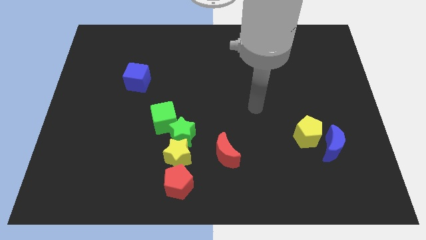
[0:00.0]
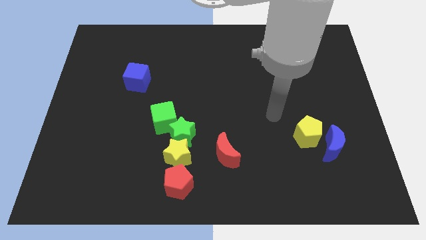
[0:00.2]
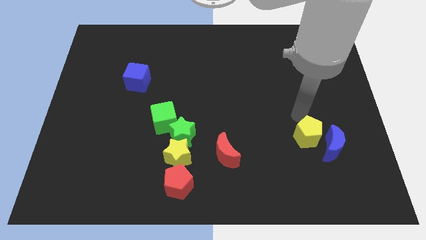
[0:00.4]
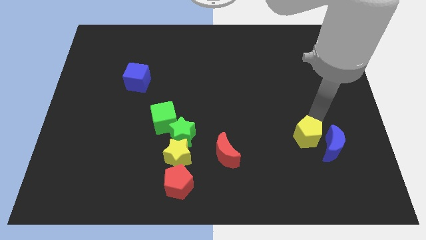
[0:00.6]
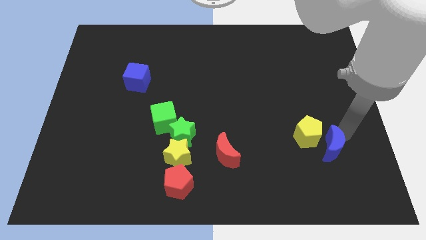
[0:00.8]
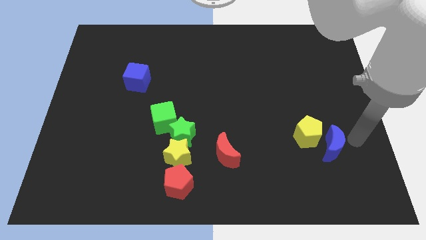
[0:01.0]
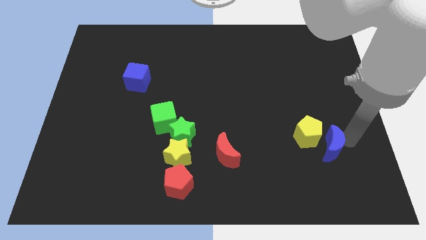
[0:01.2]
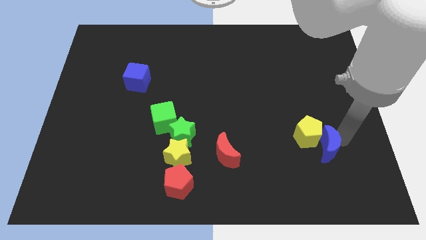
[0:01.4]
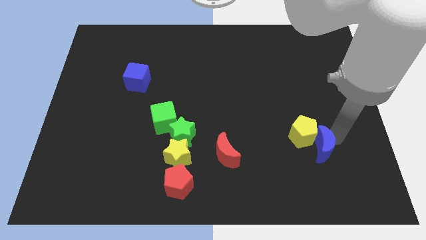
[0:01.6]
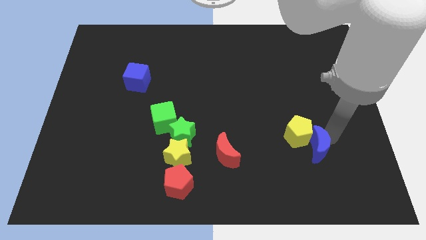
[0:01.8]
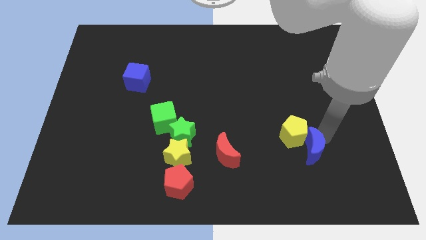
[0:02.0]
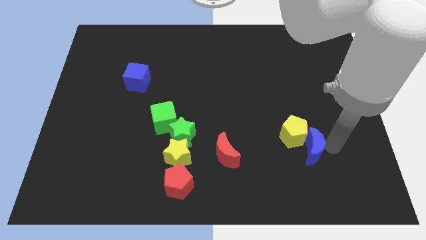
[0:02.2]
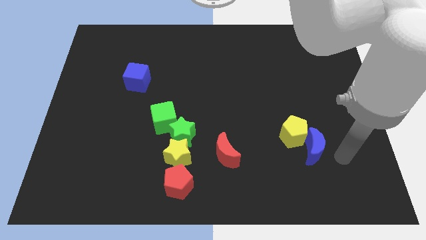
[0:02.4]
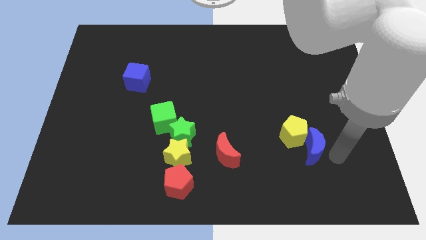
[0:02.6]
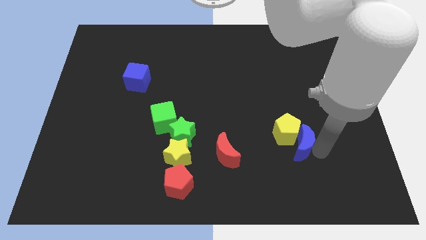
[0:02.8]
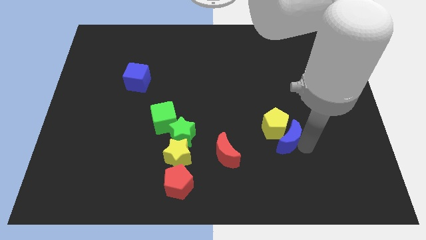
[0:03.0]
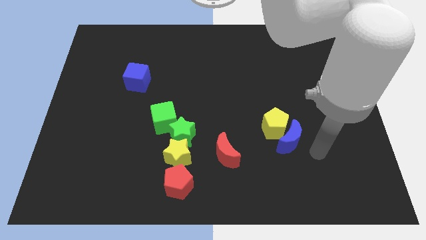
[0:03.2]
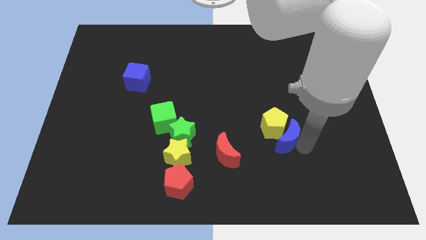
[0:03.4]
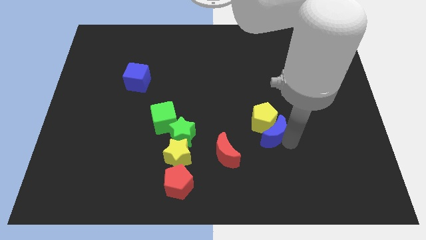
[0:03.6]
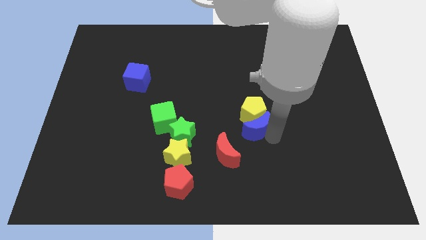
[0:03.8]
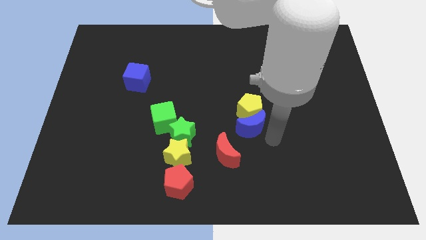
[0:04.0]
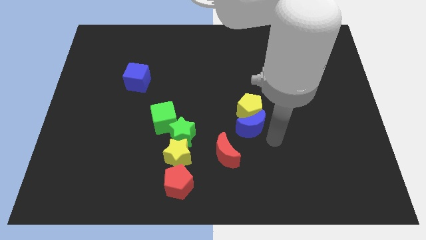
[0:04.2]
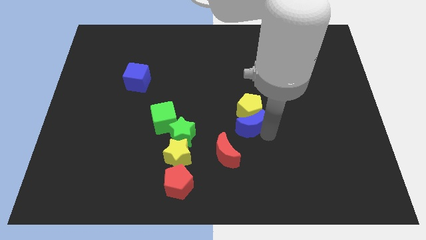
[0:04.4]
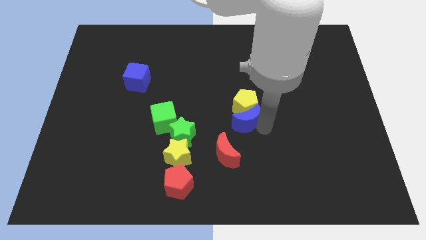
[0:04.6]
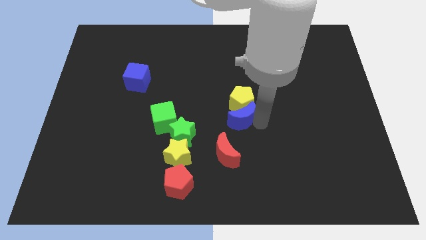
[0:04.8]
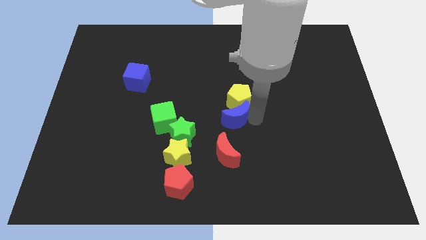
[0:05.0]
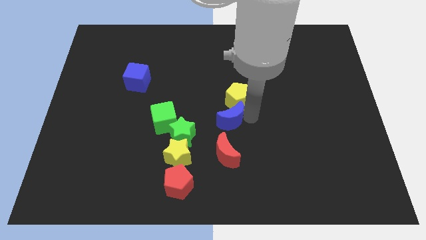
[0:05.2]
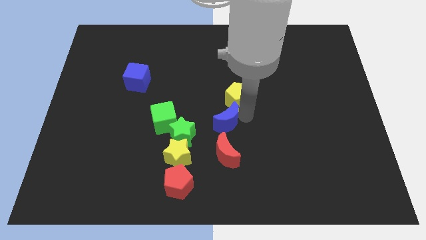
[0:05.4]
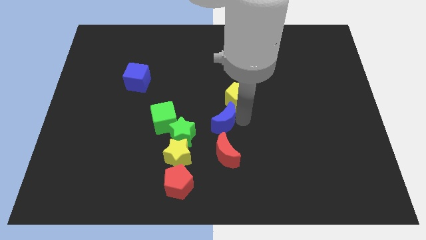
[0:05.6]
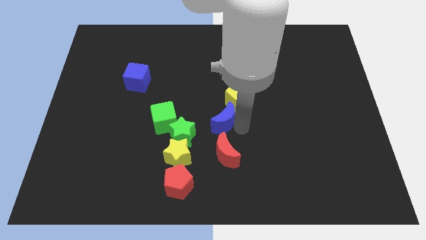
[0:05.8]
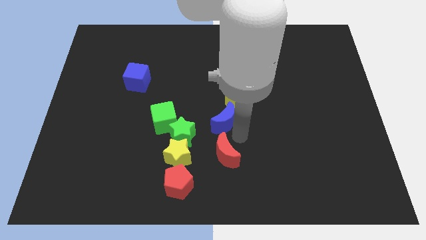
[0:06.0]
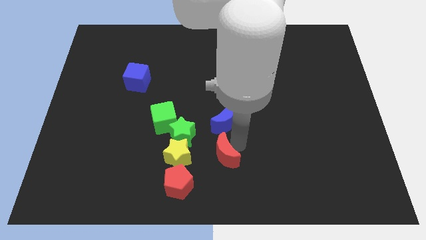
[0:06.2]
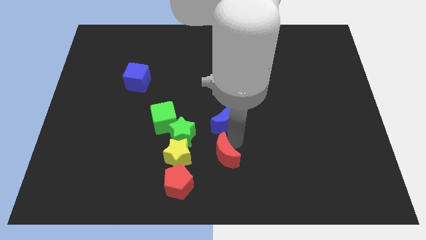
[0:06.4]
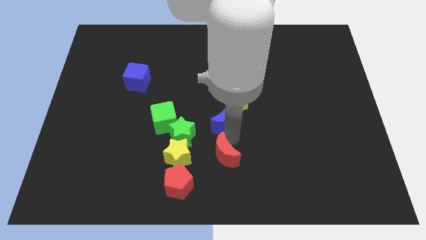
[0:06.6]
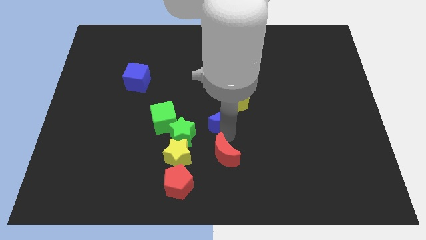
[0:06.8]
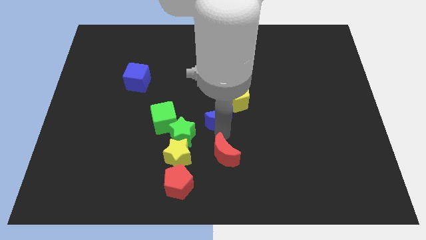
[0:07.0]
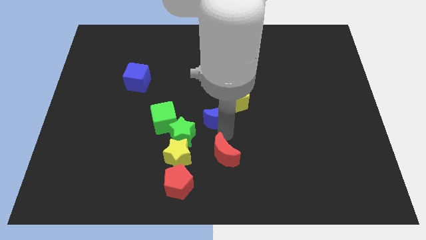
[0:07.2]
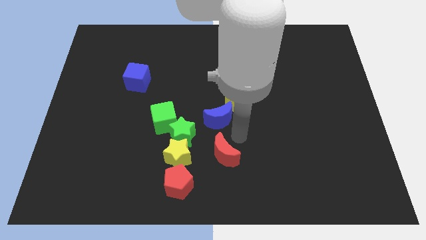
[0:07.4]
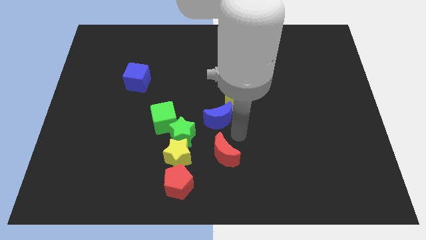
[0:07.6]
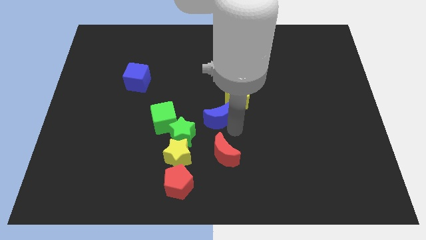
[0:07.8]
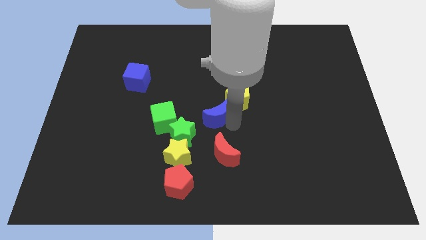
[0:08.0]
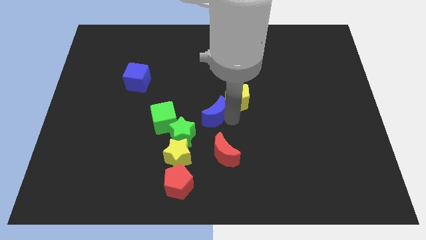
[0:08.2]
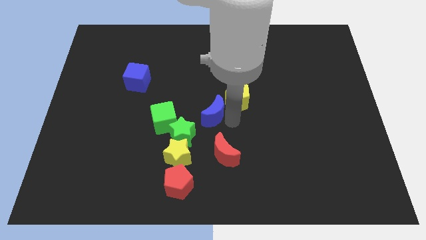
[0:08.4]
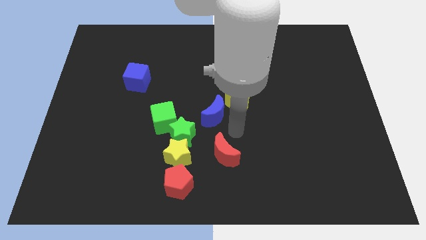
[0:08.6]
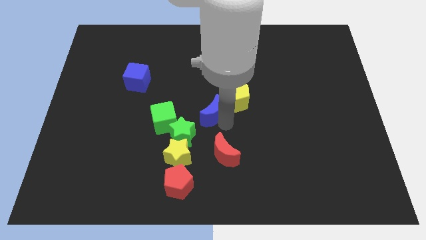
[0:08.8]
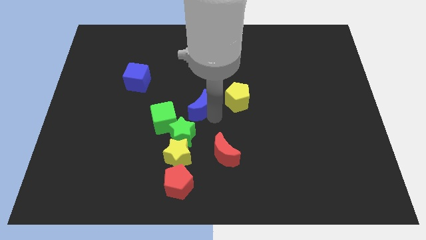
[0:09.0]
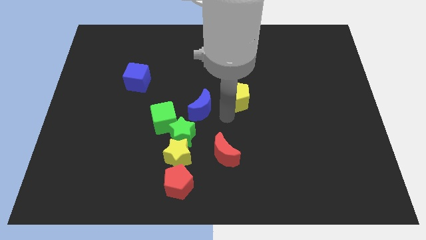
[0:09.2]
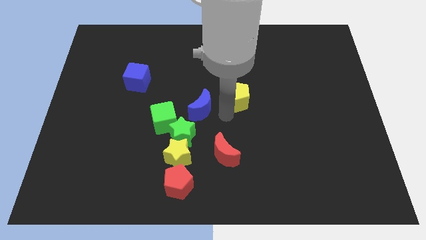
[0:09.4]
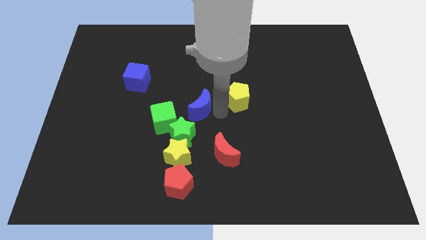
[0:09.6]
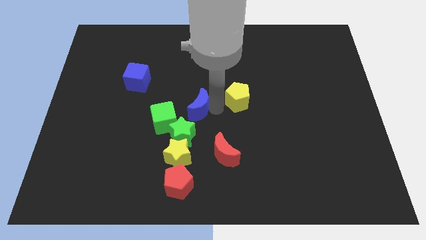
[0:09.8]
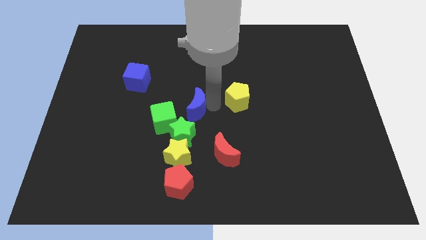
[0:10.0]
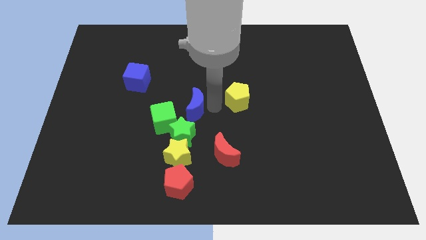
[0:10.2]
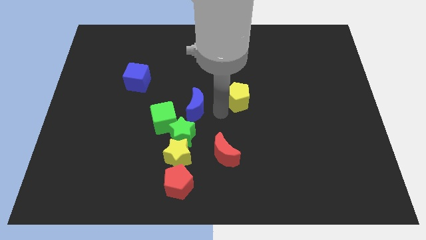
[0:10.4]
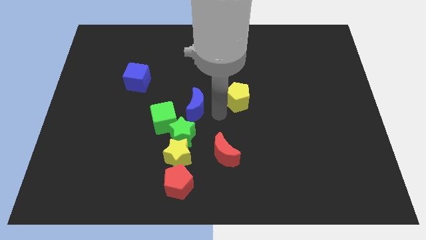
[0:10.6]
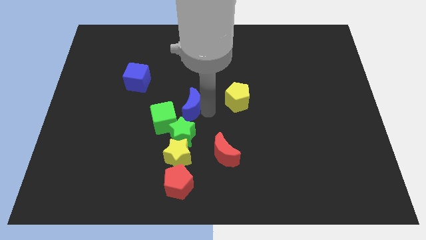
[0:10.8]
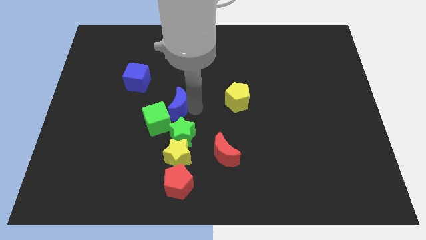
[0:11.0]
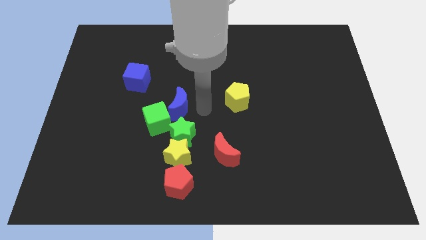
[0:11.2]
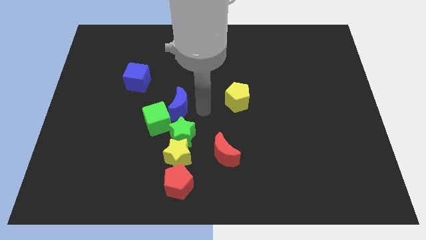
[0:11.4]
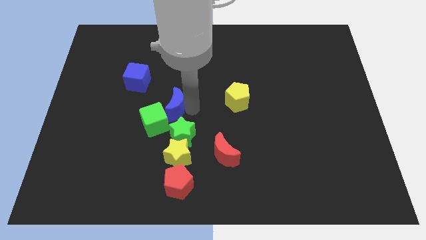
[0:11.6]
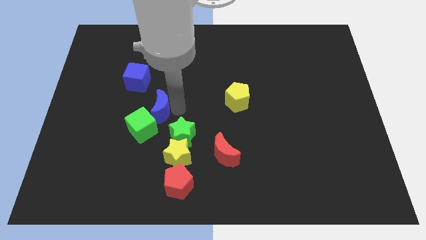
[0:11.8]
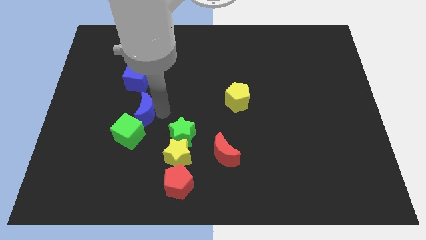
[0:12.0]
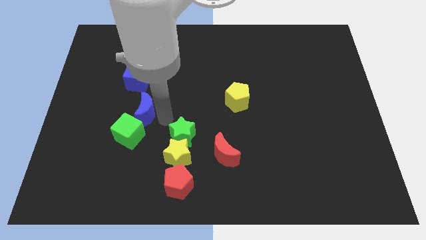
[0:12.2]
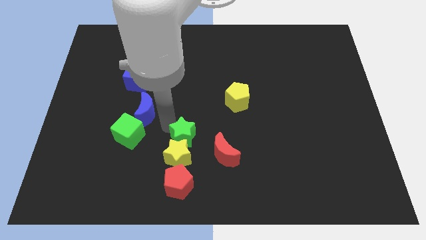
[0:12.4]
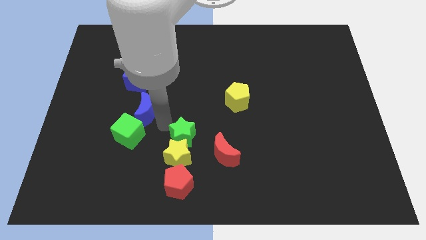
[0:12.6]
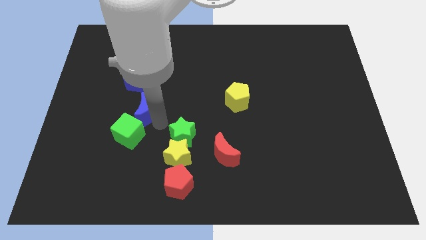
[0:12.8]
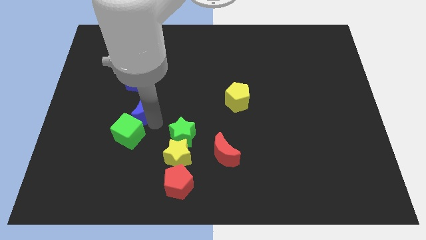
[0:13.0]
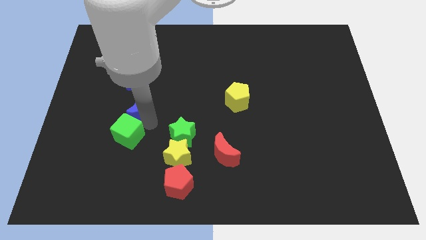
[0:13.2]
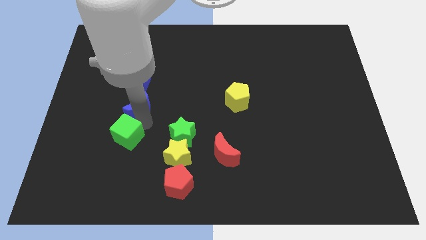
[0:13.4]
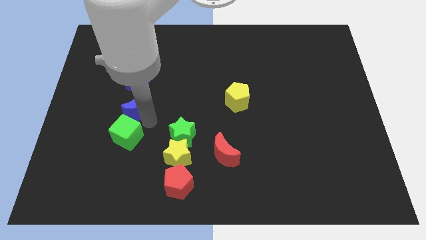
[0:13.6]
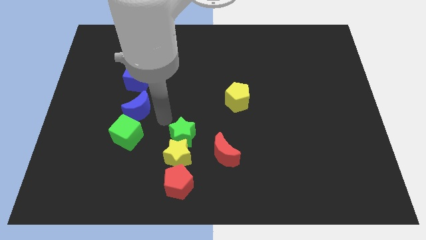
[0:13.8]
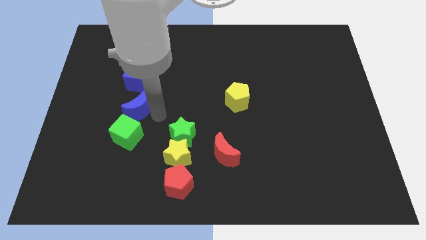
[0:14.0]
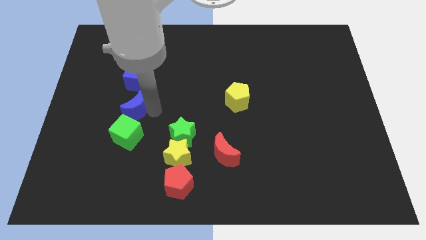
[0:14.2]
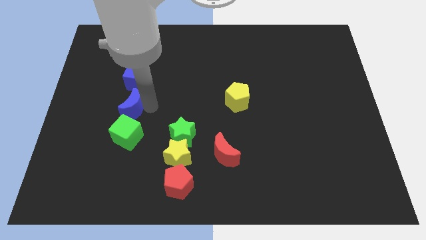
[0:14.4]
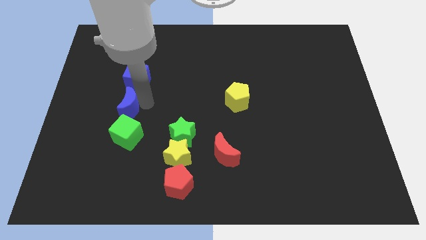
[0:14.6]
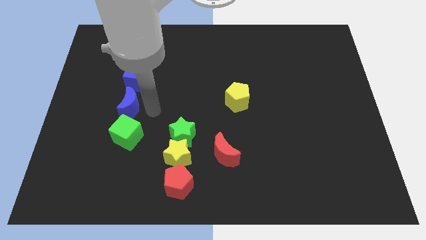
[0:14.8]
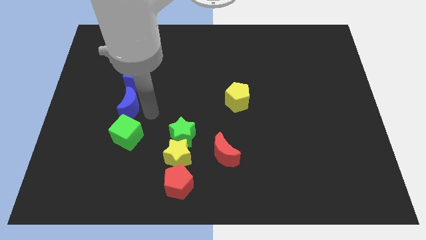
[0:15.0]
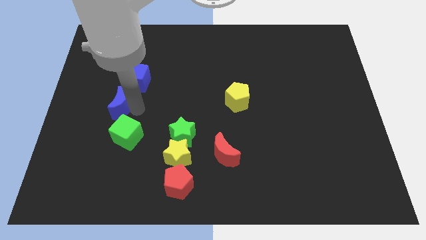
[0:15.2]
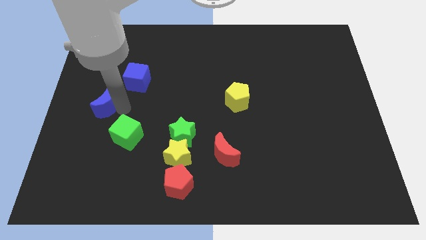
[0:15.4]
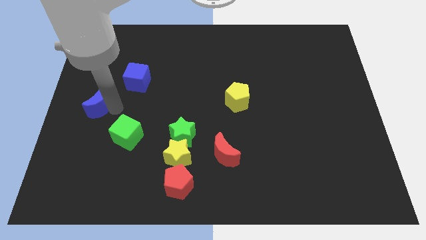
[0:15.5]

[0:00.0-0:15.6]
put the blue moon to the center left
